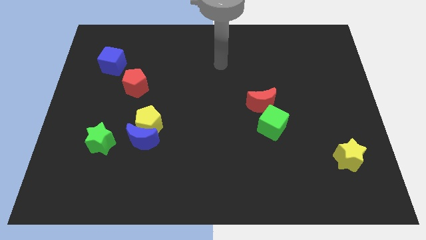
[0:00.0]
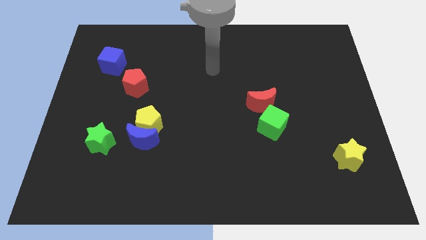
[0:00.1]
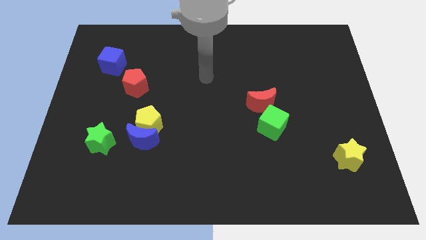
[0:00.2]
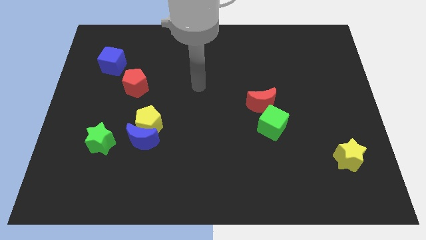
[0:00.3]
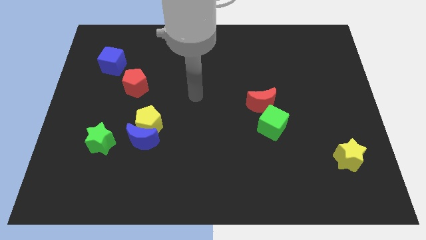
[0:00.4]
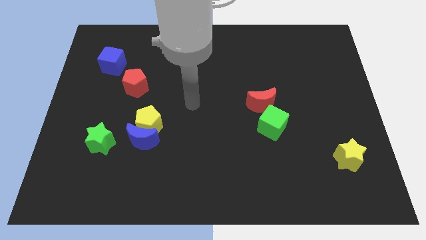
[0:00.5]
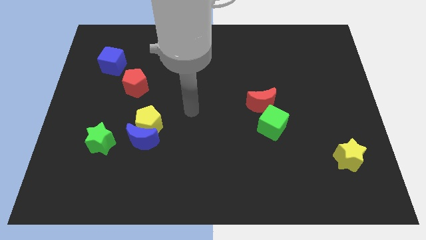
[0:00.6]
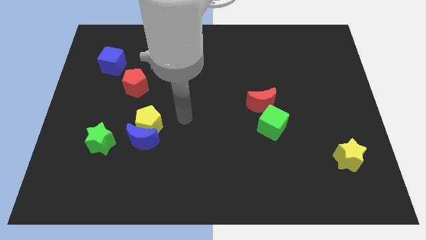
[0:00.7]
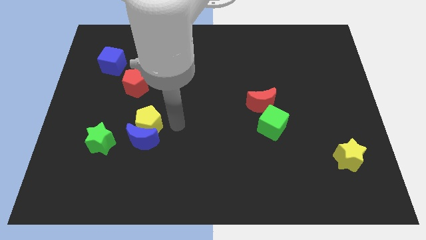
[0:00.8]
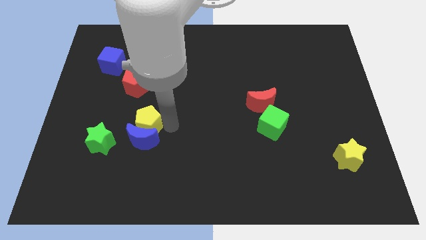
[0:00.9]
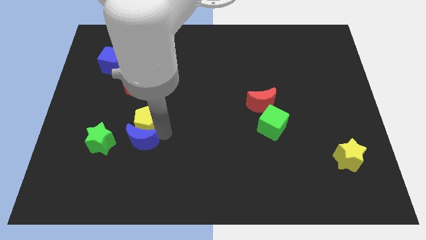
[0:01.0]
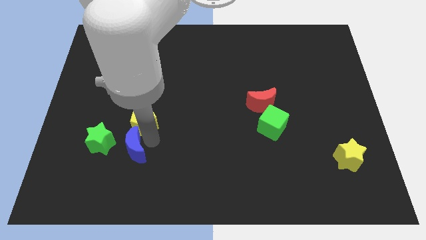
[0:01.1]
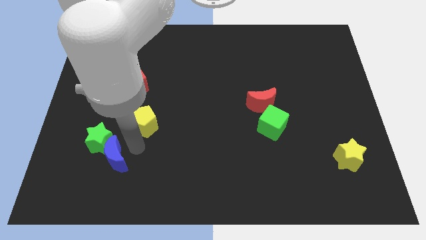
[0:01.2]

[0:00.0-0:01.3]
separate the yellow pentagon from the blue moon

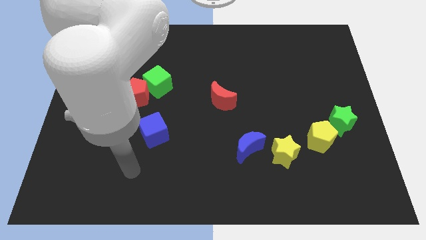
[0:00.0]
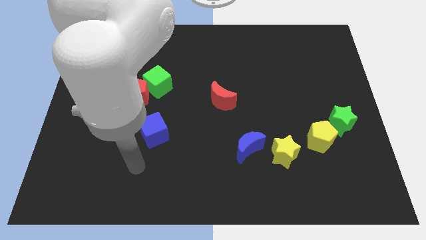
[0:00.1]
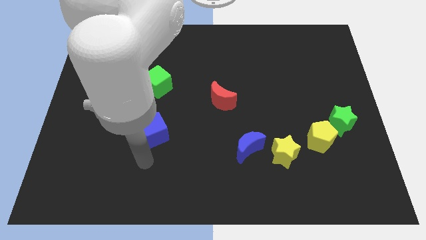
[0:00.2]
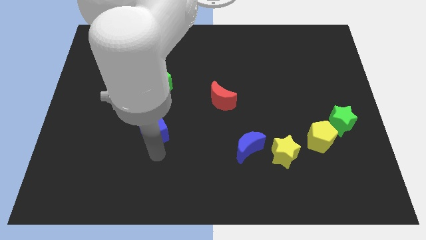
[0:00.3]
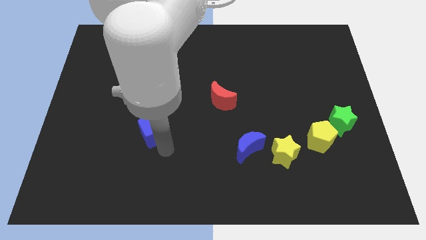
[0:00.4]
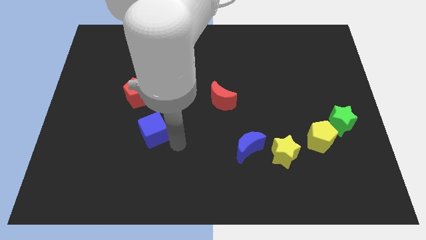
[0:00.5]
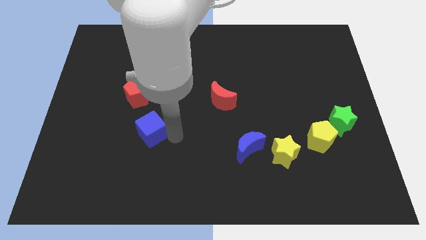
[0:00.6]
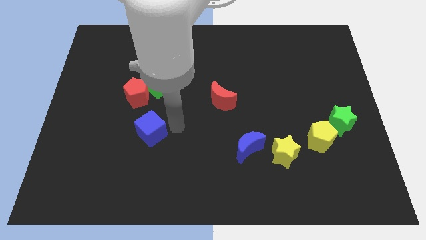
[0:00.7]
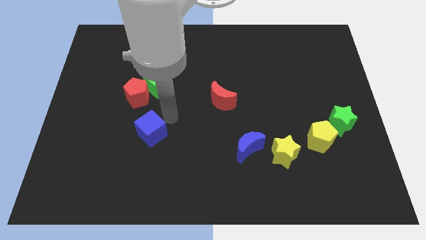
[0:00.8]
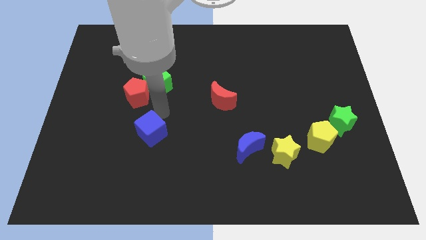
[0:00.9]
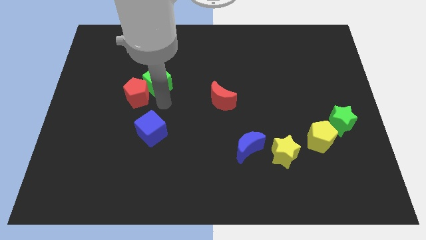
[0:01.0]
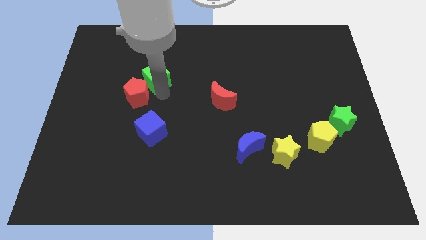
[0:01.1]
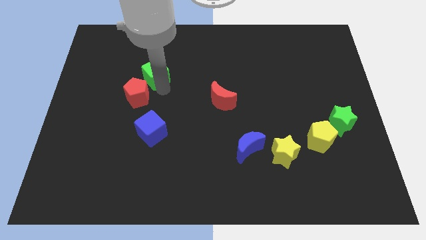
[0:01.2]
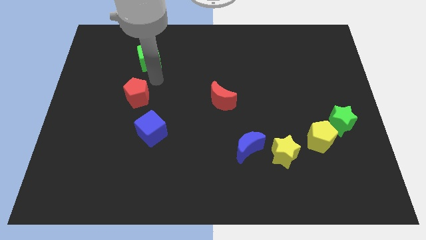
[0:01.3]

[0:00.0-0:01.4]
move the red pentagon away from the green cube

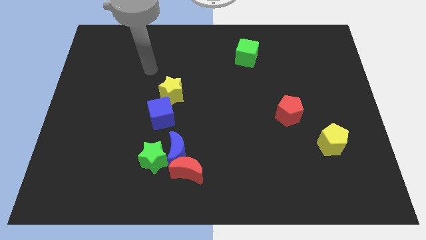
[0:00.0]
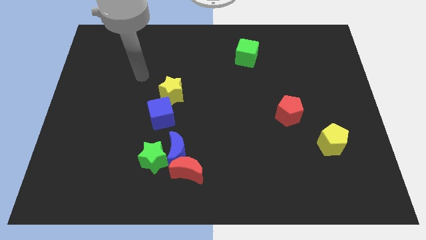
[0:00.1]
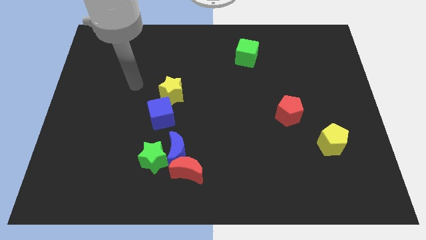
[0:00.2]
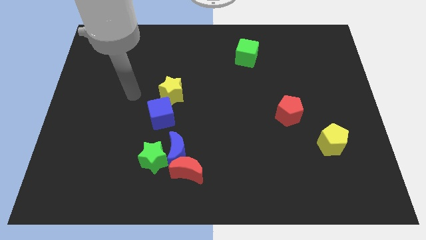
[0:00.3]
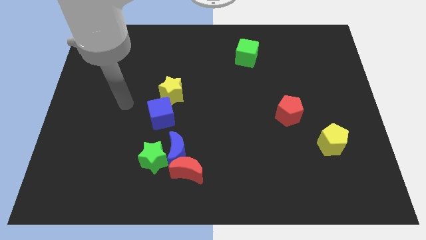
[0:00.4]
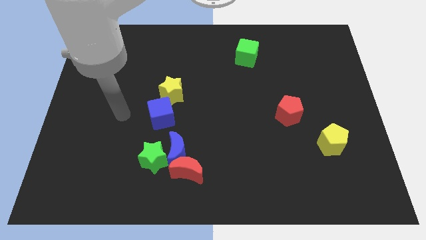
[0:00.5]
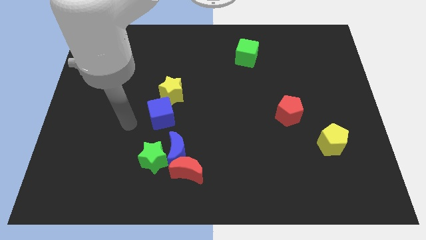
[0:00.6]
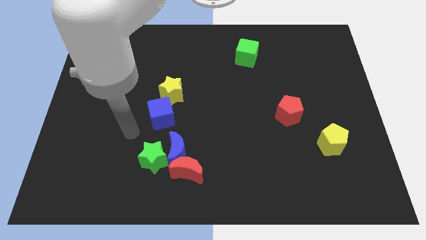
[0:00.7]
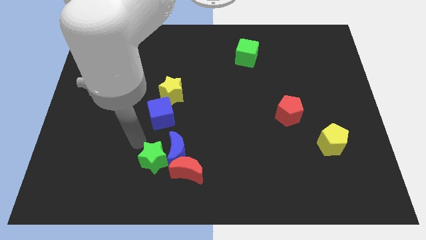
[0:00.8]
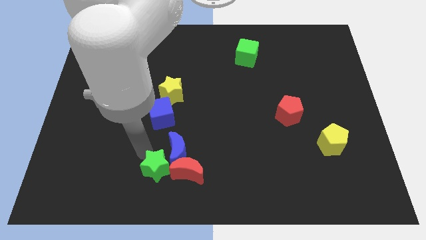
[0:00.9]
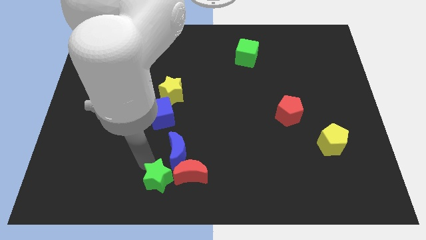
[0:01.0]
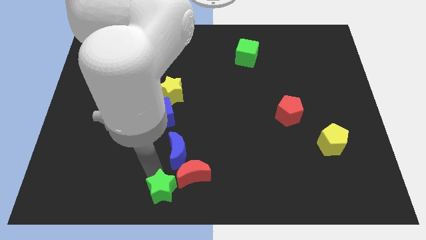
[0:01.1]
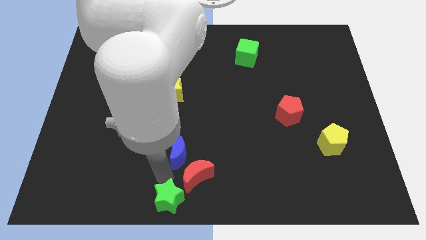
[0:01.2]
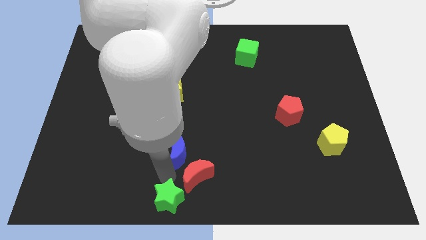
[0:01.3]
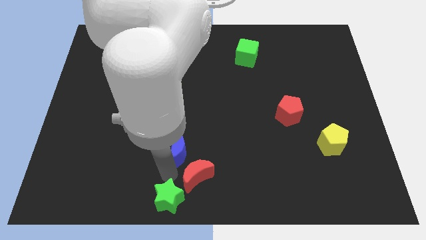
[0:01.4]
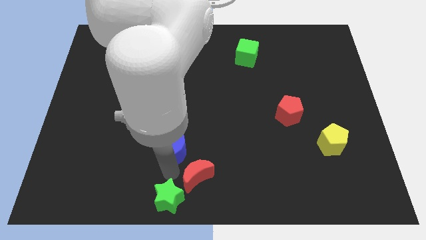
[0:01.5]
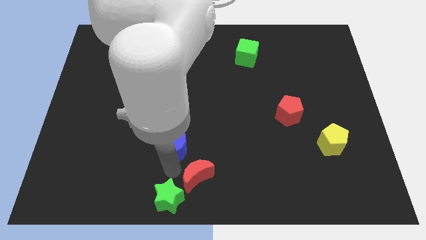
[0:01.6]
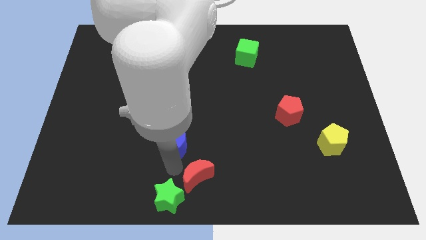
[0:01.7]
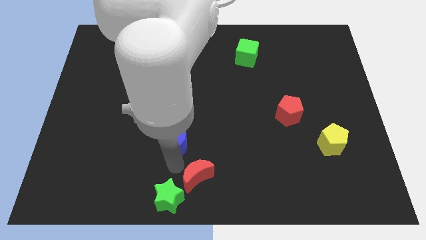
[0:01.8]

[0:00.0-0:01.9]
pull the blue moon apart from the red moon and green star

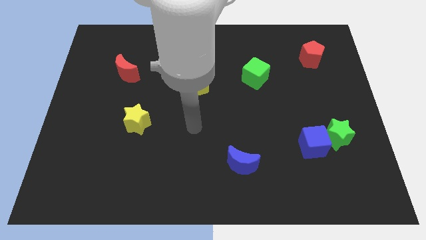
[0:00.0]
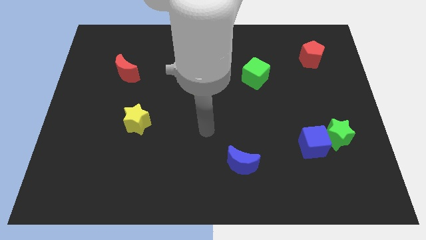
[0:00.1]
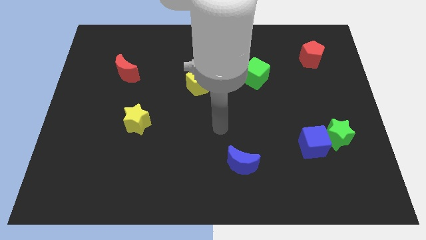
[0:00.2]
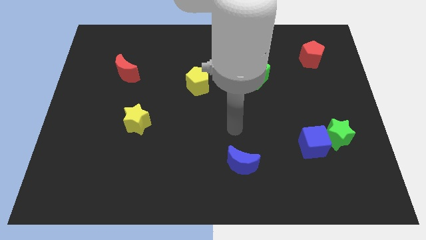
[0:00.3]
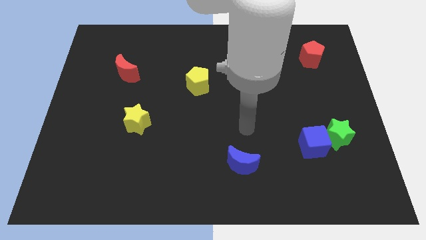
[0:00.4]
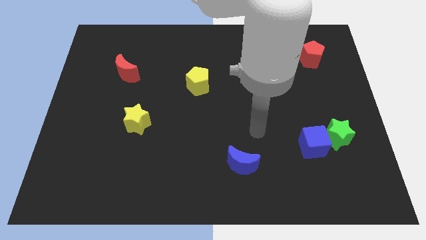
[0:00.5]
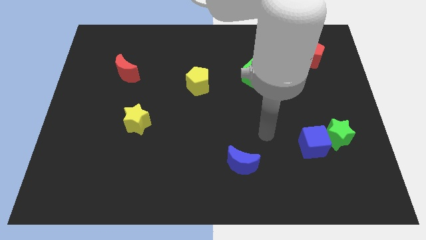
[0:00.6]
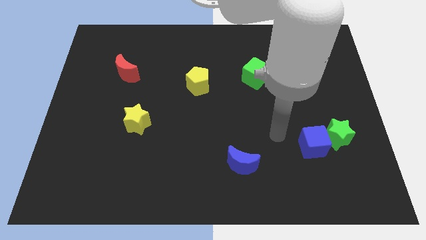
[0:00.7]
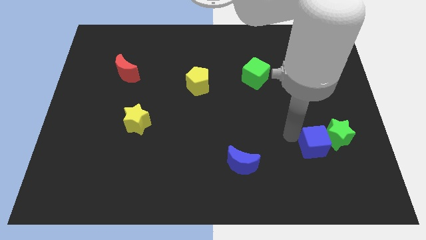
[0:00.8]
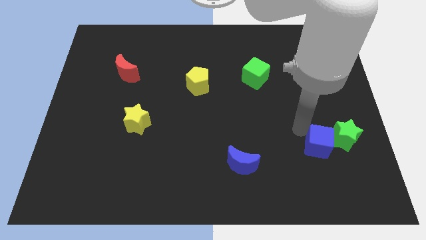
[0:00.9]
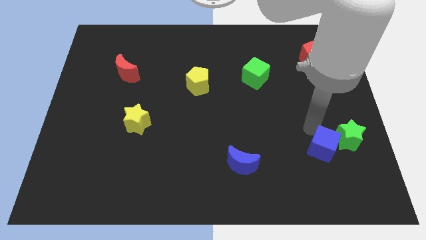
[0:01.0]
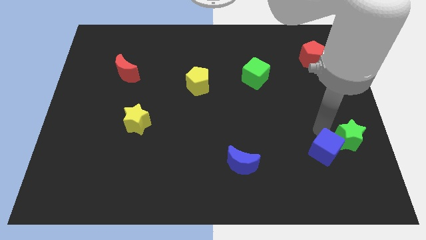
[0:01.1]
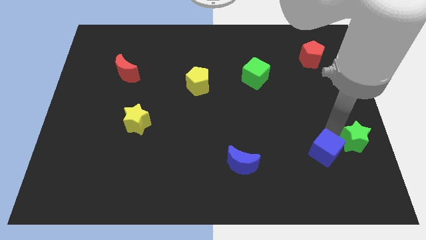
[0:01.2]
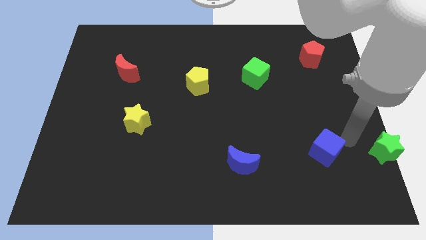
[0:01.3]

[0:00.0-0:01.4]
separate the blue cube from the green star

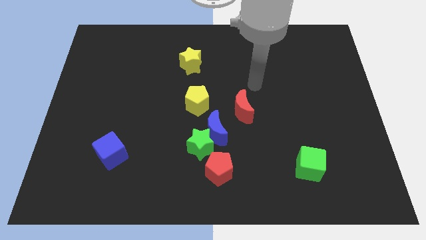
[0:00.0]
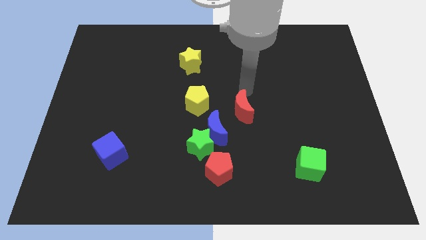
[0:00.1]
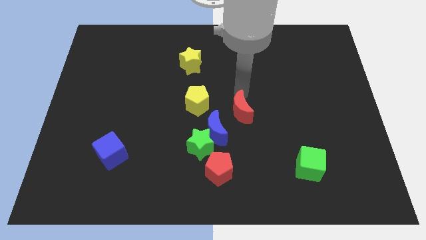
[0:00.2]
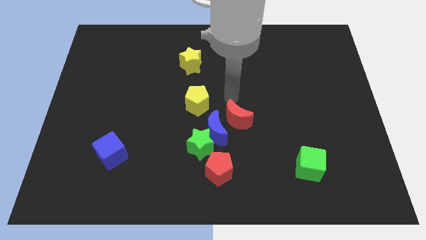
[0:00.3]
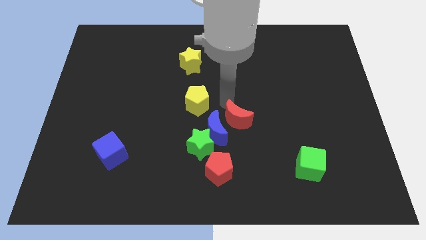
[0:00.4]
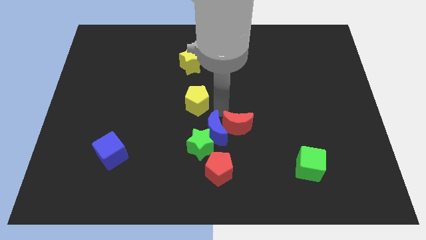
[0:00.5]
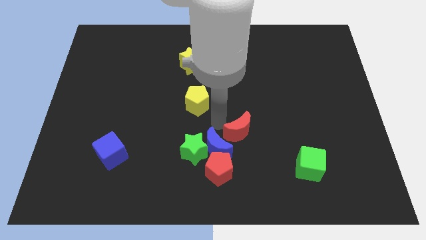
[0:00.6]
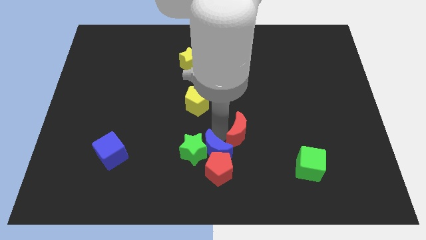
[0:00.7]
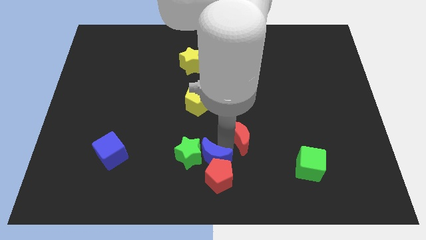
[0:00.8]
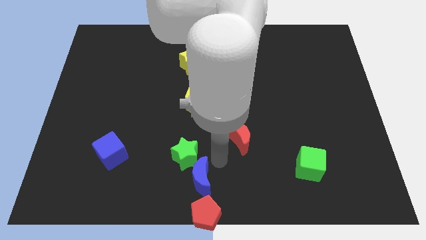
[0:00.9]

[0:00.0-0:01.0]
pull the green star apart from the blue moon and red pentagon

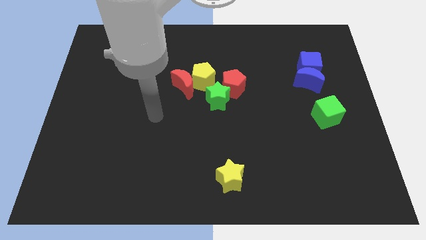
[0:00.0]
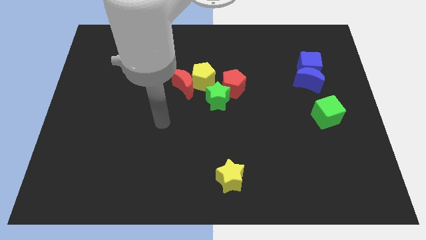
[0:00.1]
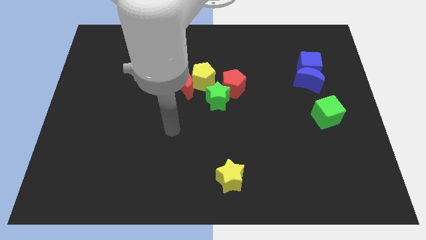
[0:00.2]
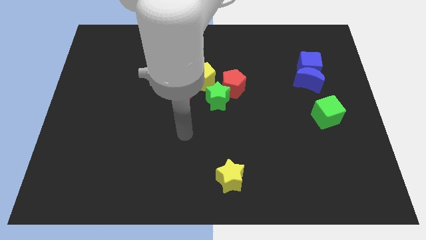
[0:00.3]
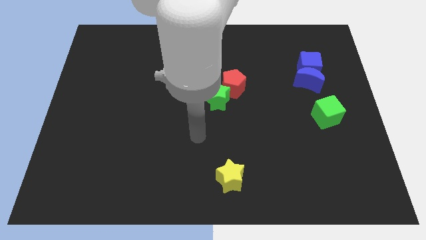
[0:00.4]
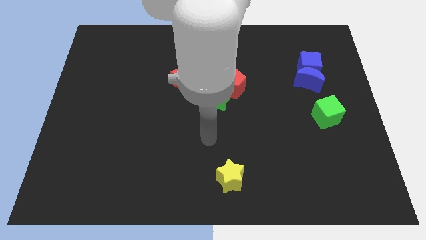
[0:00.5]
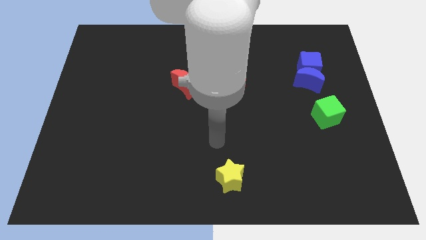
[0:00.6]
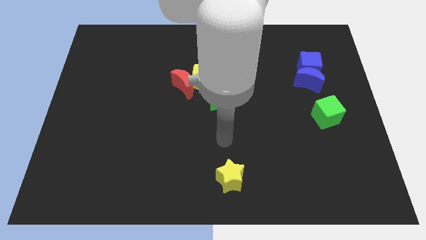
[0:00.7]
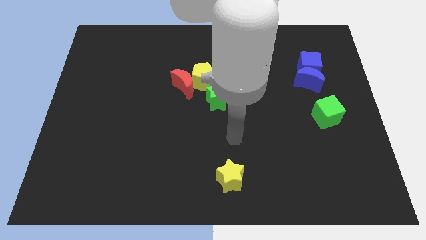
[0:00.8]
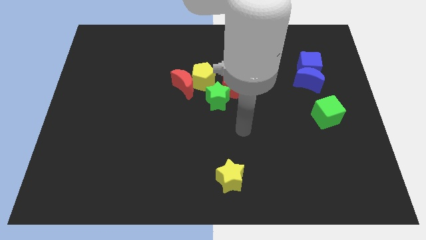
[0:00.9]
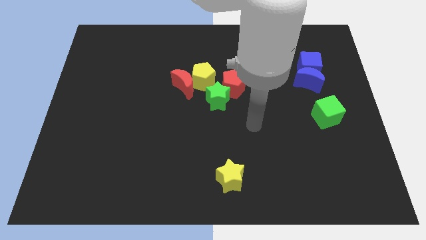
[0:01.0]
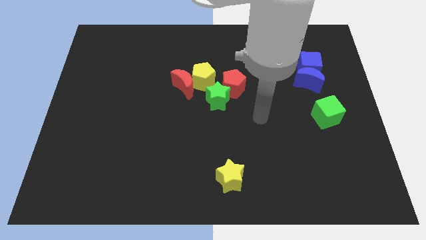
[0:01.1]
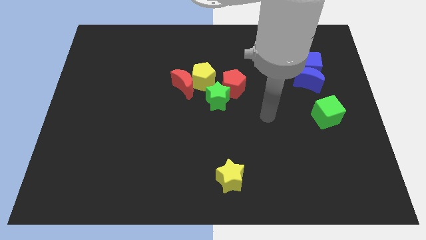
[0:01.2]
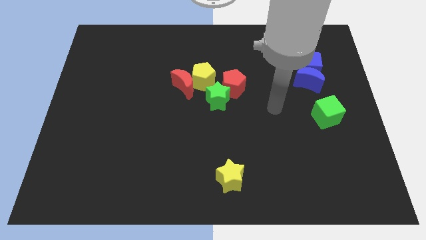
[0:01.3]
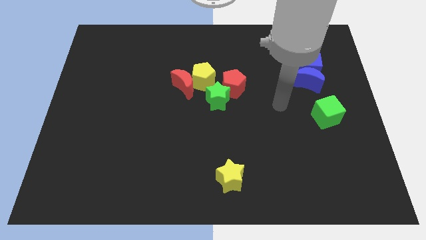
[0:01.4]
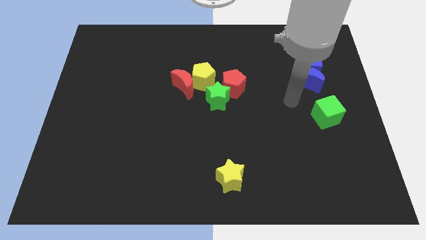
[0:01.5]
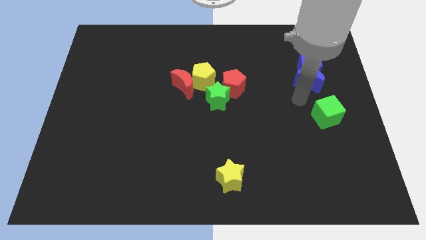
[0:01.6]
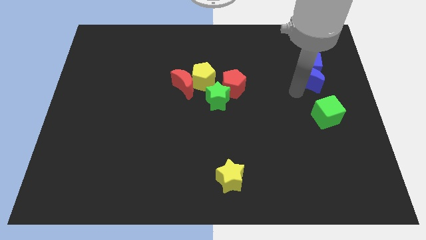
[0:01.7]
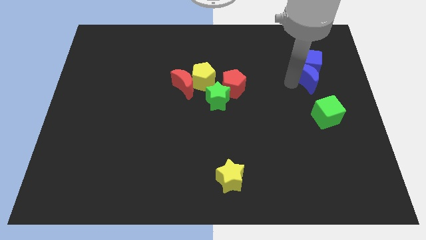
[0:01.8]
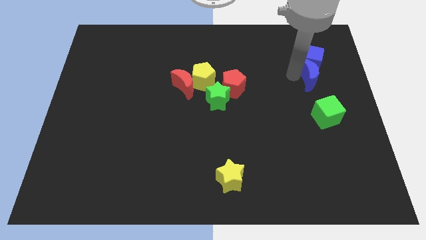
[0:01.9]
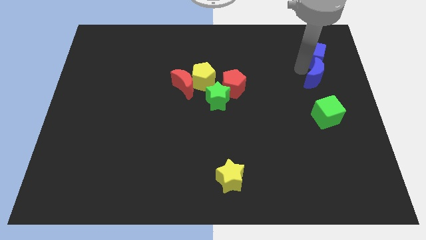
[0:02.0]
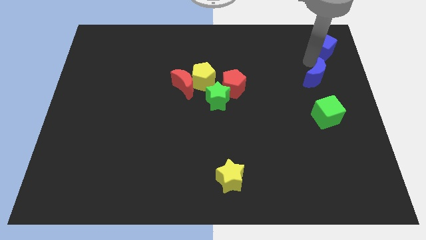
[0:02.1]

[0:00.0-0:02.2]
move the blue moon away from the blue cube
